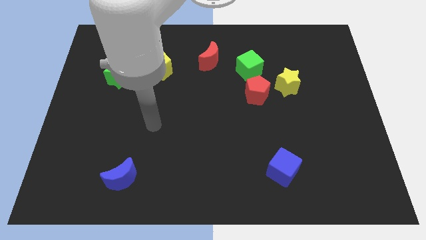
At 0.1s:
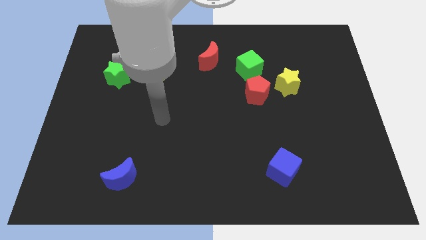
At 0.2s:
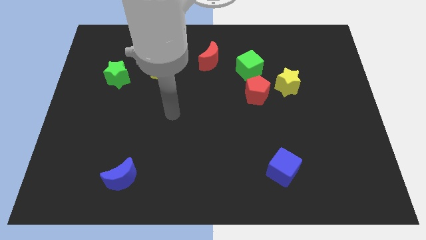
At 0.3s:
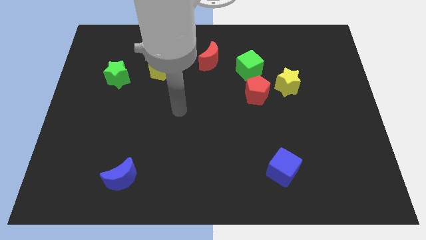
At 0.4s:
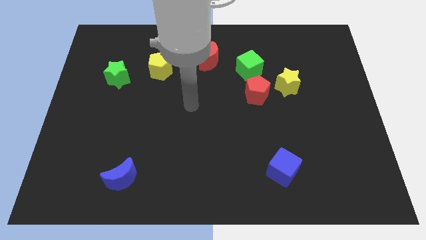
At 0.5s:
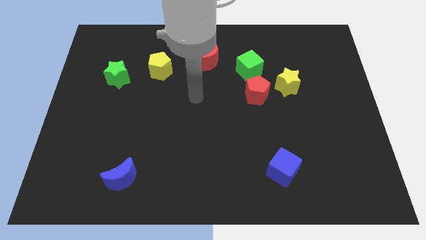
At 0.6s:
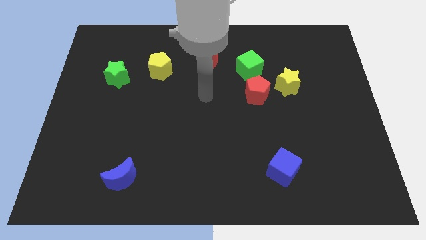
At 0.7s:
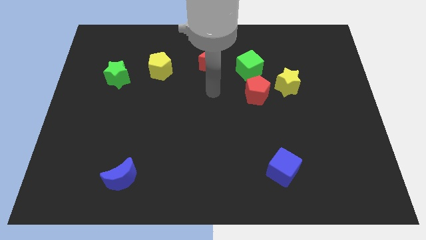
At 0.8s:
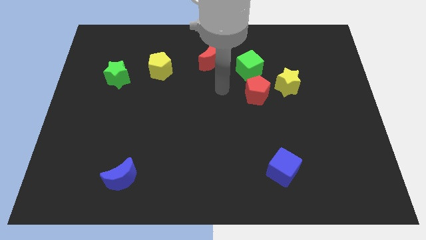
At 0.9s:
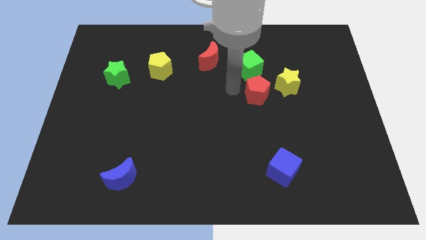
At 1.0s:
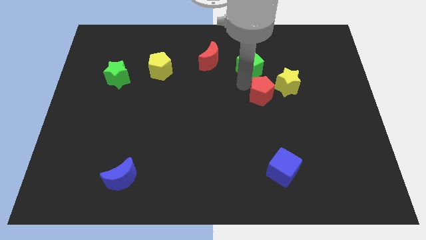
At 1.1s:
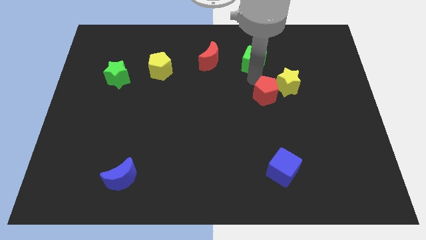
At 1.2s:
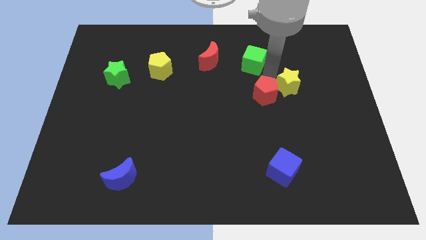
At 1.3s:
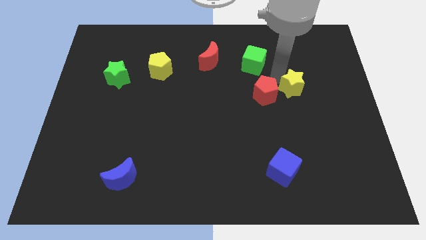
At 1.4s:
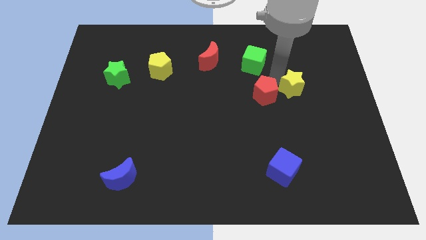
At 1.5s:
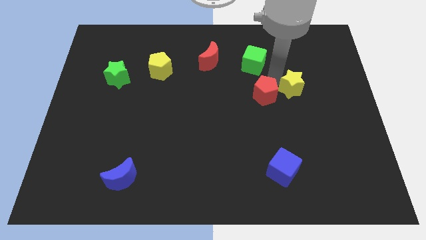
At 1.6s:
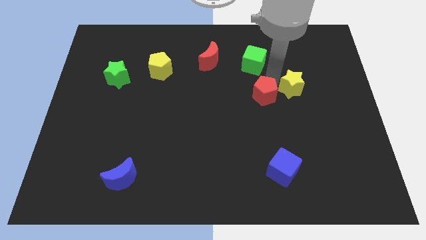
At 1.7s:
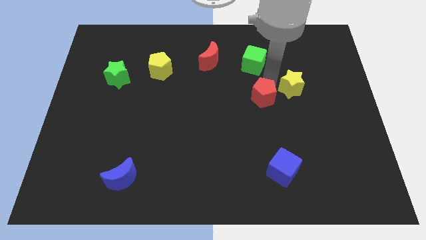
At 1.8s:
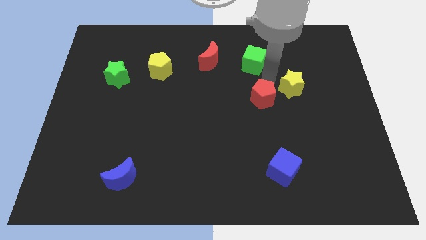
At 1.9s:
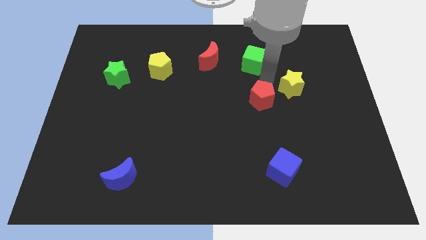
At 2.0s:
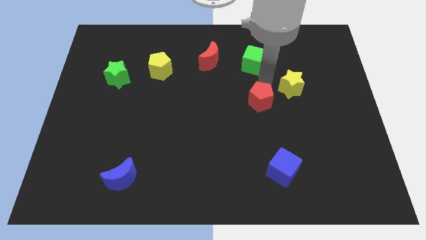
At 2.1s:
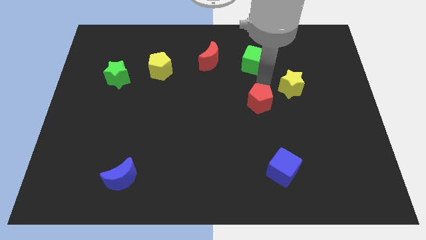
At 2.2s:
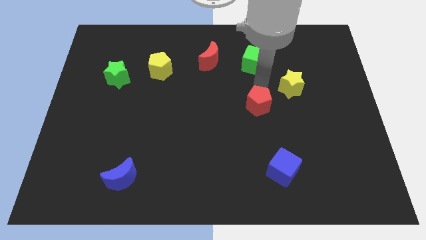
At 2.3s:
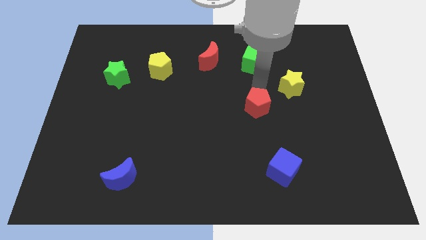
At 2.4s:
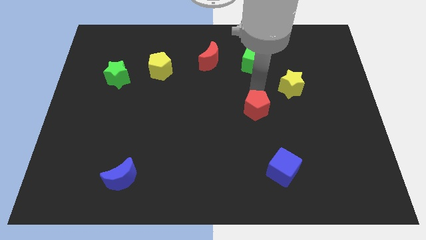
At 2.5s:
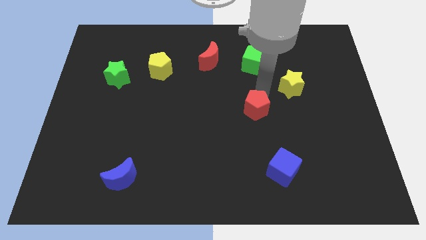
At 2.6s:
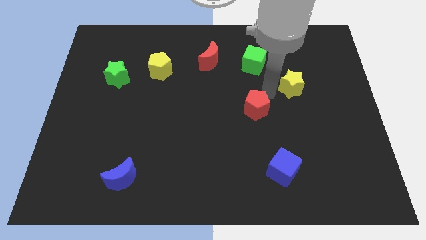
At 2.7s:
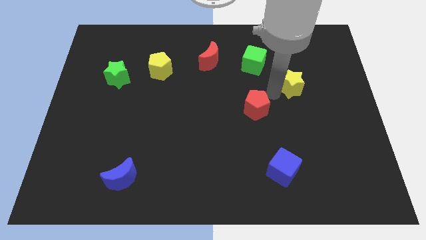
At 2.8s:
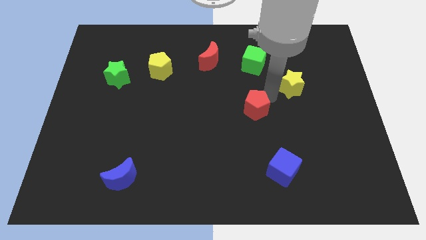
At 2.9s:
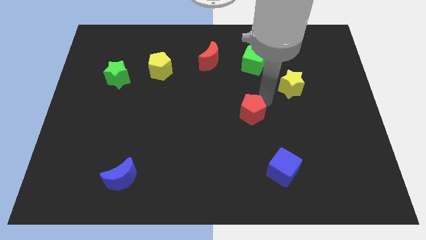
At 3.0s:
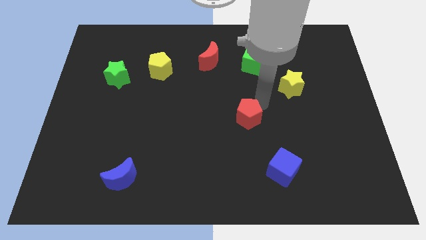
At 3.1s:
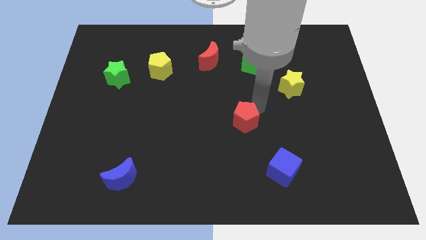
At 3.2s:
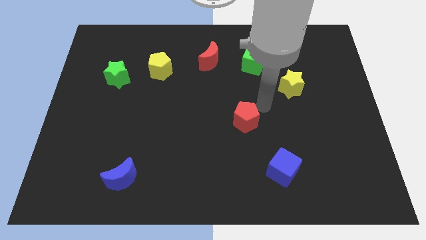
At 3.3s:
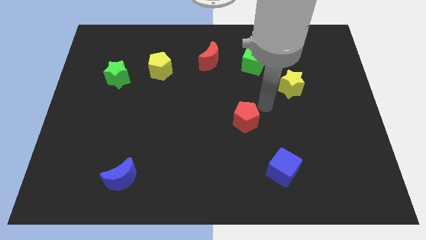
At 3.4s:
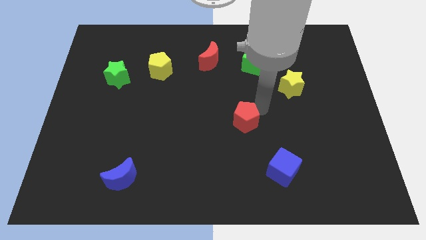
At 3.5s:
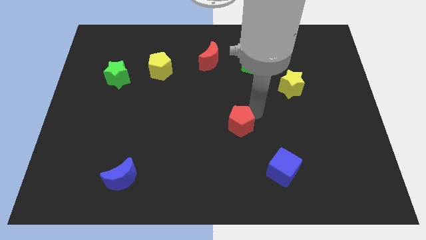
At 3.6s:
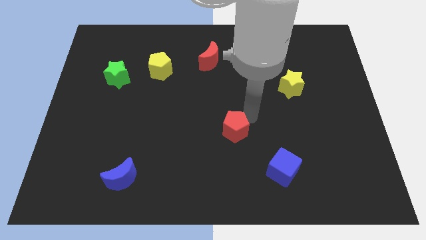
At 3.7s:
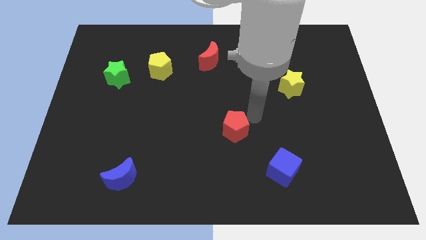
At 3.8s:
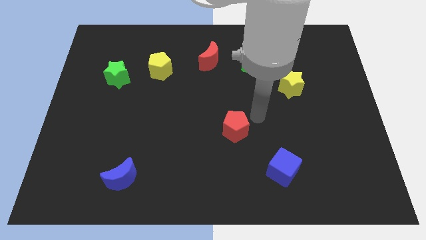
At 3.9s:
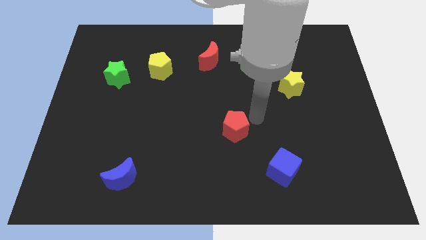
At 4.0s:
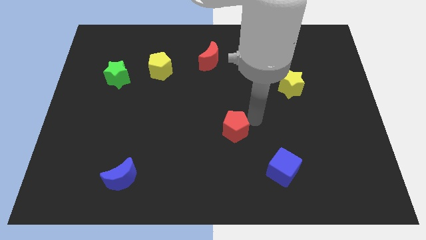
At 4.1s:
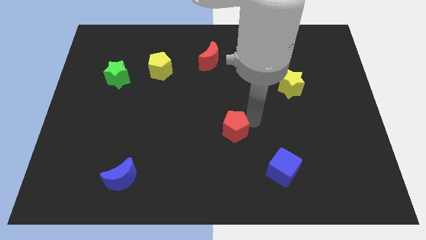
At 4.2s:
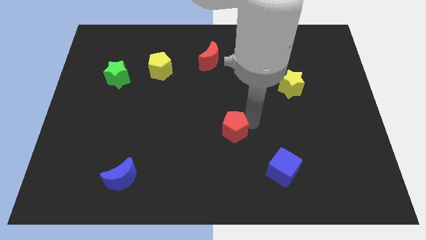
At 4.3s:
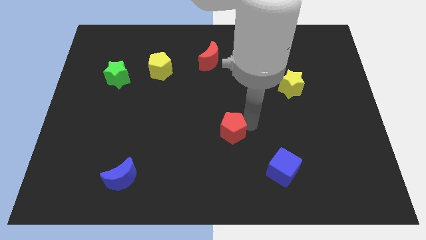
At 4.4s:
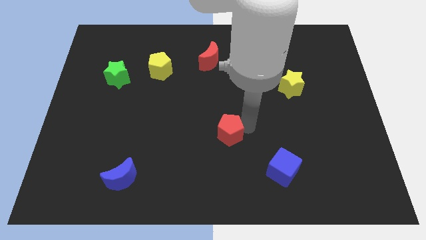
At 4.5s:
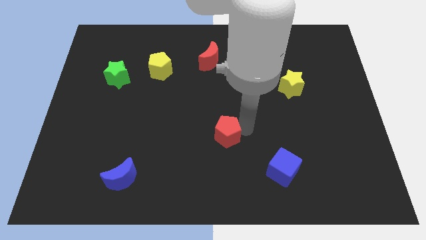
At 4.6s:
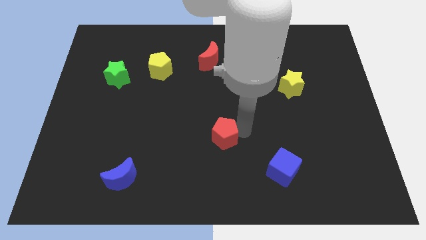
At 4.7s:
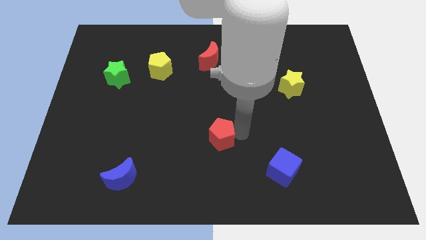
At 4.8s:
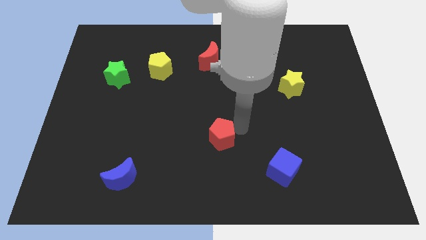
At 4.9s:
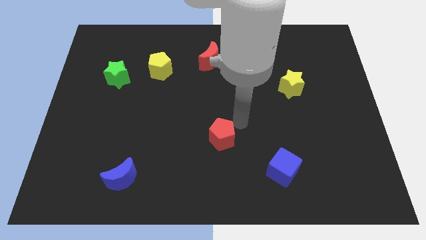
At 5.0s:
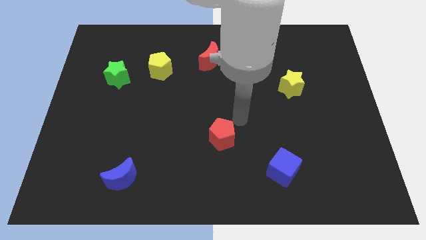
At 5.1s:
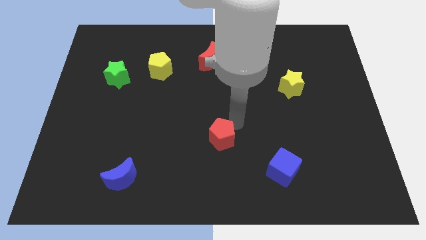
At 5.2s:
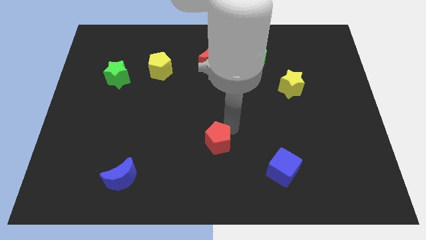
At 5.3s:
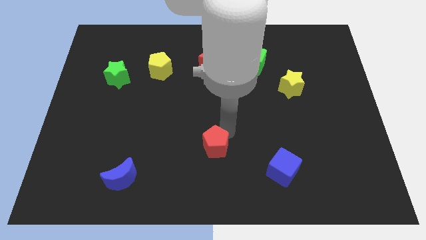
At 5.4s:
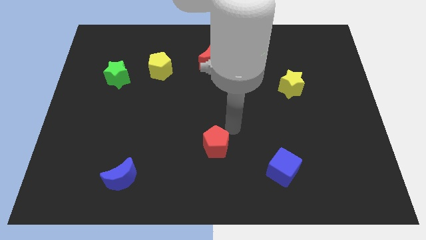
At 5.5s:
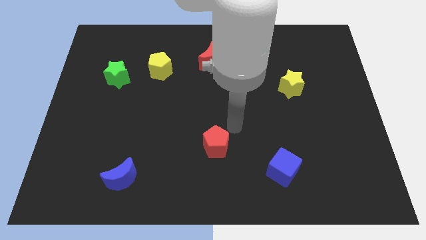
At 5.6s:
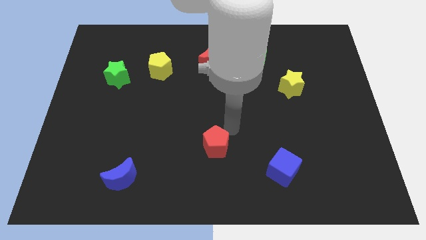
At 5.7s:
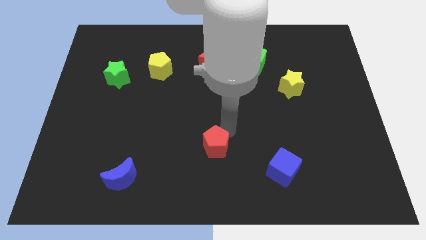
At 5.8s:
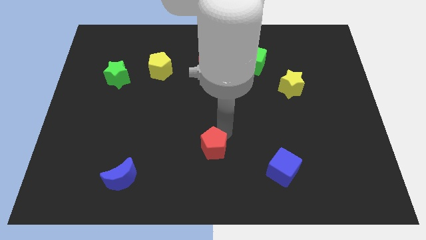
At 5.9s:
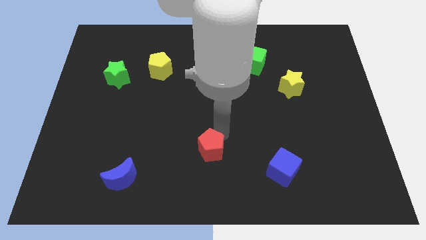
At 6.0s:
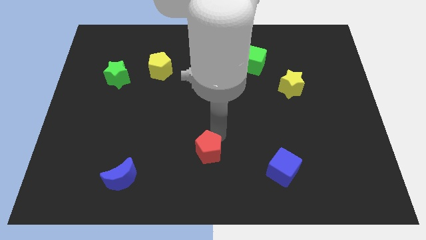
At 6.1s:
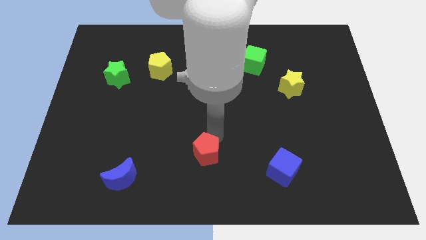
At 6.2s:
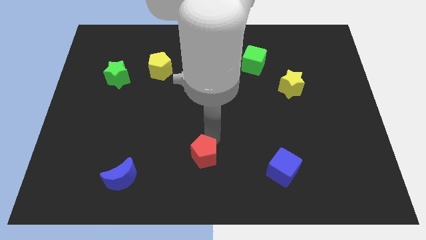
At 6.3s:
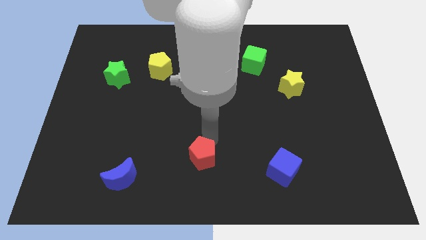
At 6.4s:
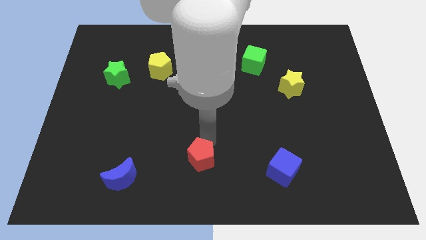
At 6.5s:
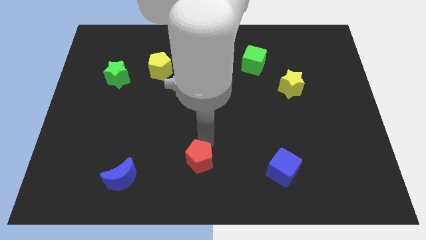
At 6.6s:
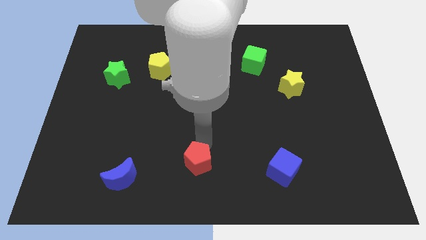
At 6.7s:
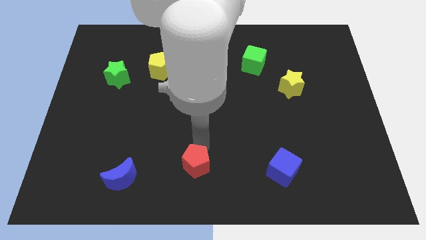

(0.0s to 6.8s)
push the red pentagon to the right of the blue moon

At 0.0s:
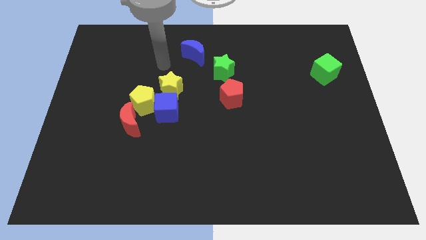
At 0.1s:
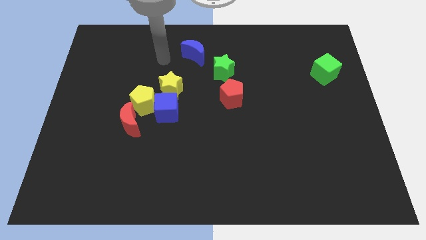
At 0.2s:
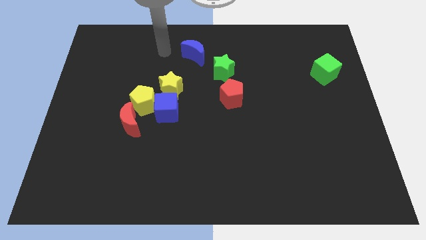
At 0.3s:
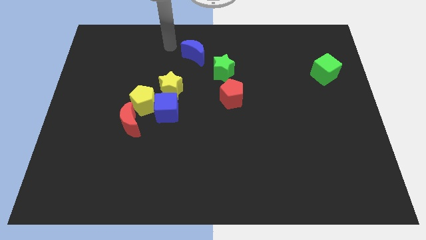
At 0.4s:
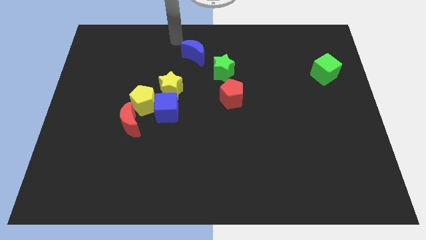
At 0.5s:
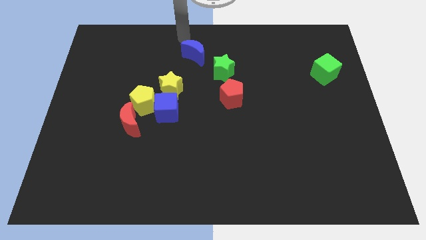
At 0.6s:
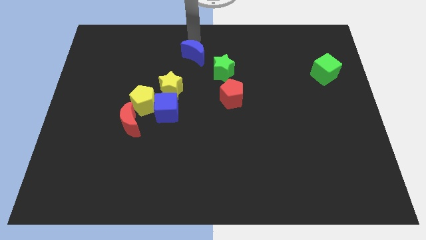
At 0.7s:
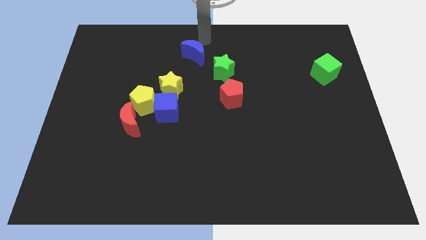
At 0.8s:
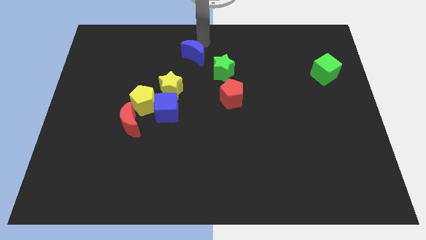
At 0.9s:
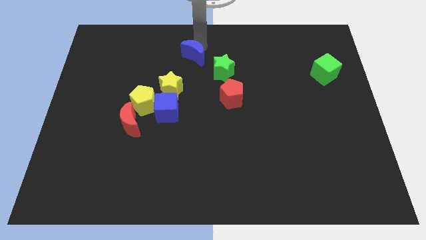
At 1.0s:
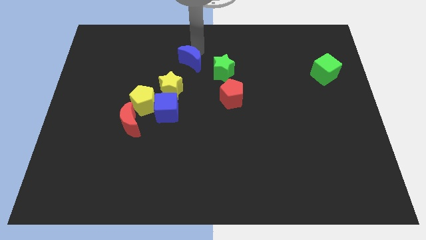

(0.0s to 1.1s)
push the blue moon to the left side of the green star
